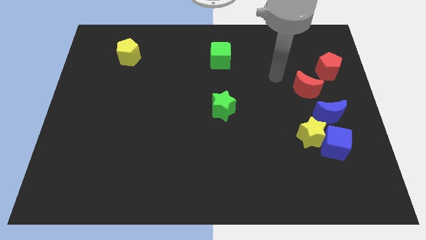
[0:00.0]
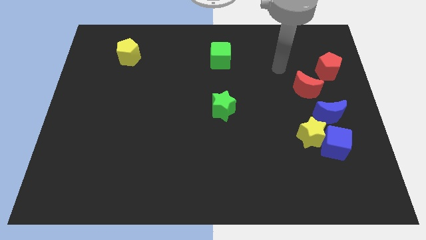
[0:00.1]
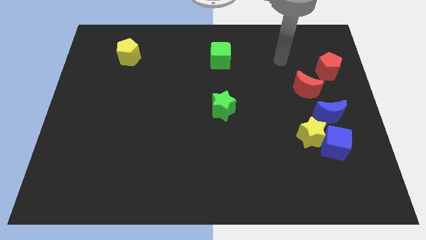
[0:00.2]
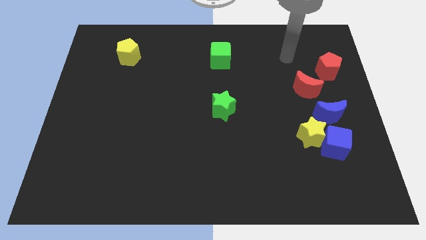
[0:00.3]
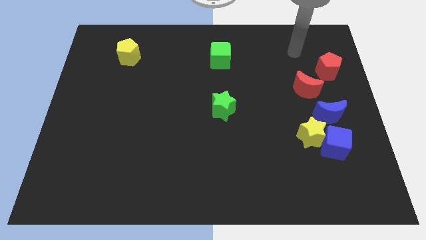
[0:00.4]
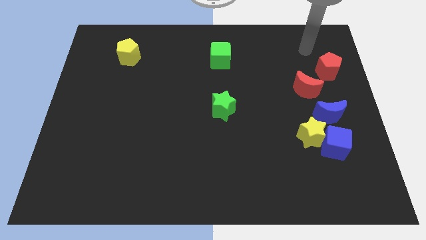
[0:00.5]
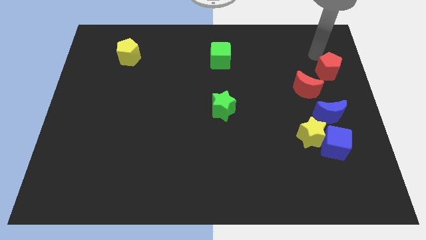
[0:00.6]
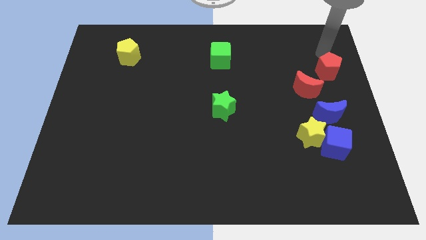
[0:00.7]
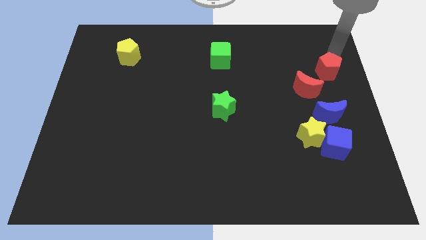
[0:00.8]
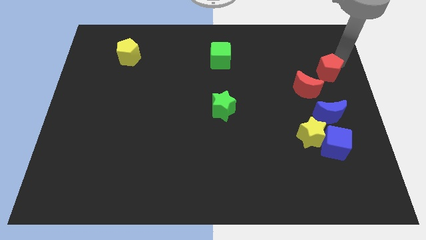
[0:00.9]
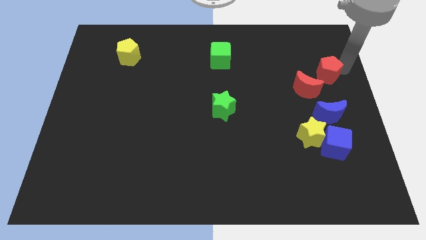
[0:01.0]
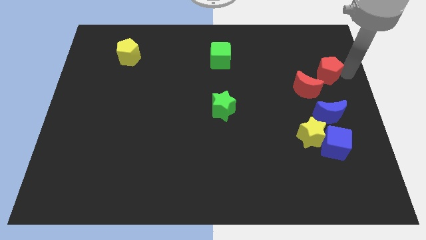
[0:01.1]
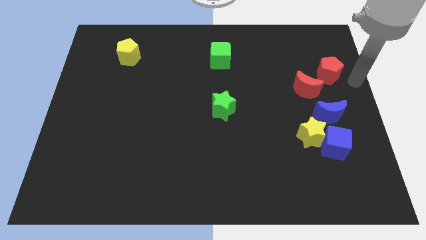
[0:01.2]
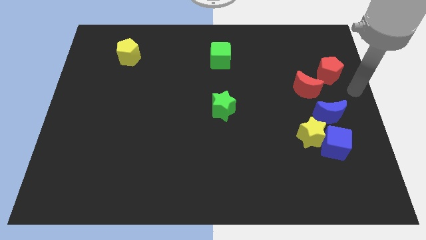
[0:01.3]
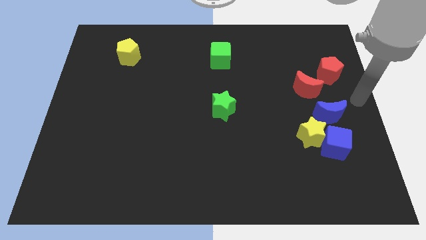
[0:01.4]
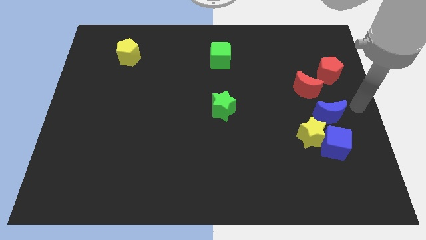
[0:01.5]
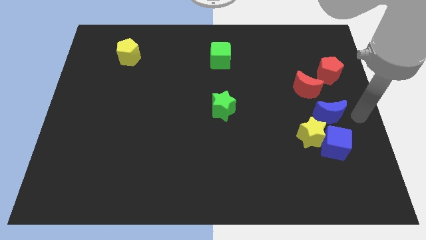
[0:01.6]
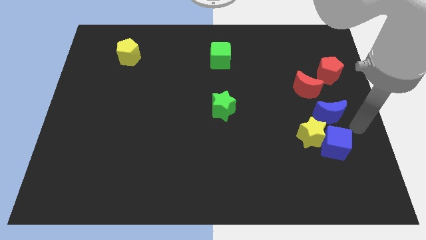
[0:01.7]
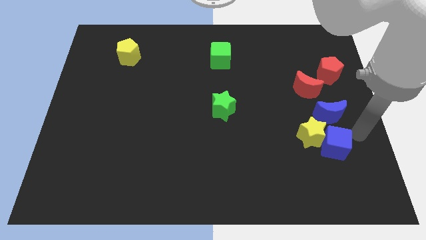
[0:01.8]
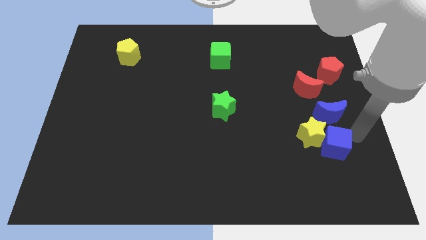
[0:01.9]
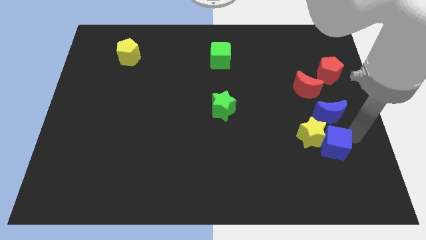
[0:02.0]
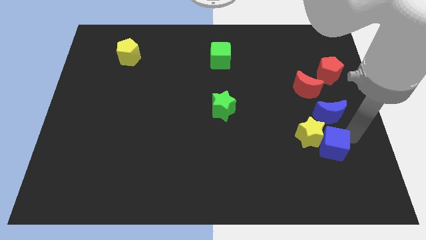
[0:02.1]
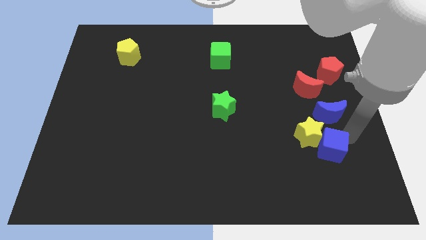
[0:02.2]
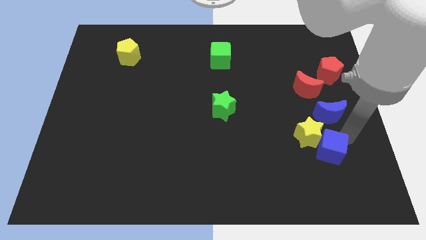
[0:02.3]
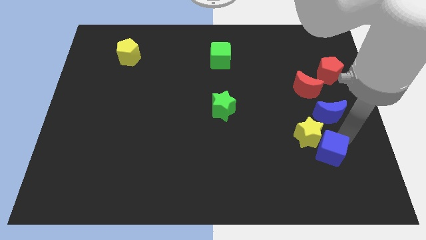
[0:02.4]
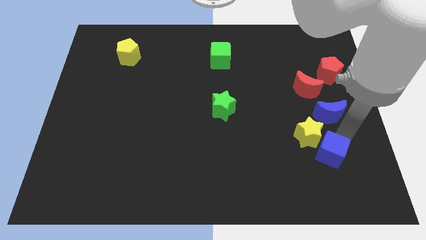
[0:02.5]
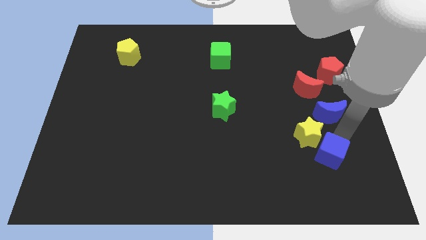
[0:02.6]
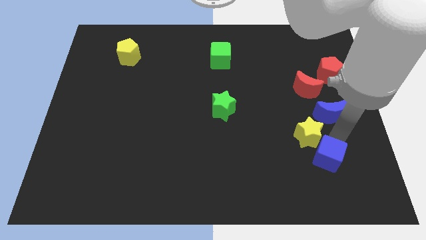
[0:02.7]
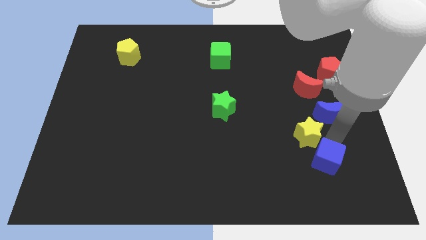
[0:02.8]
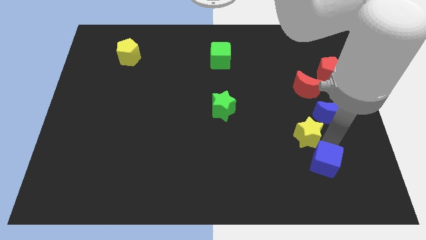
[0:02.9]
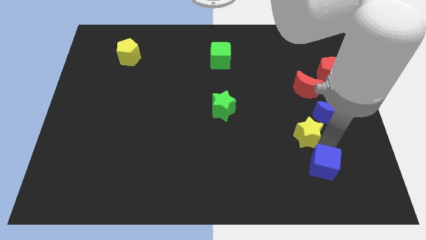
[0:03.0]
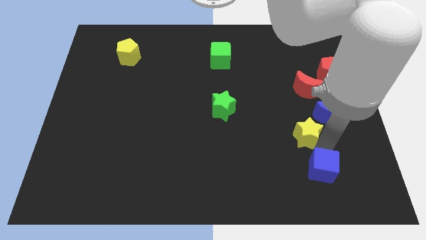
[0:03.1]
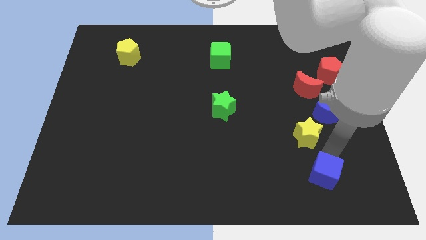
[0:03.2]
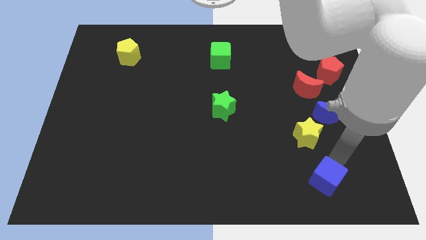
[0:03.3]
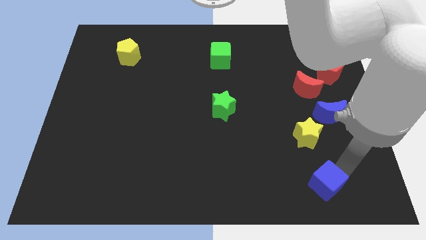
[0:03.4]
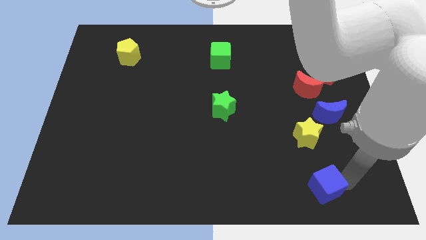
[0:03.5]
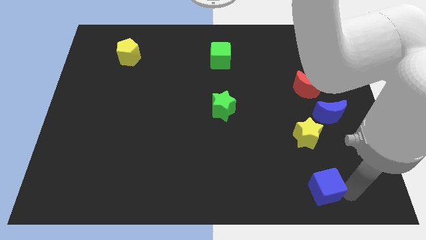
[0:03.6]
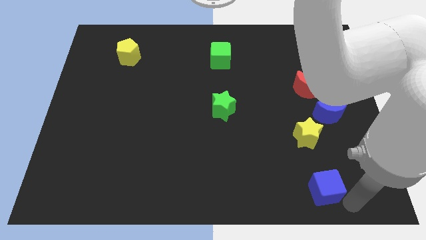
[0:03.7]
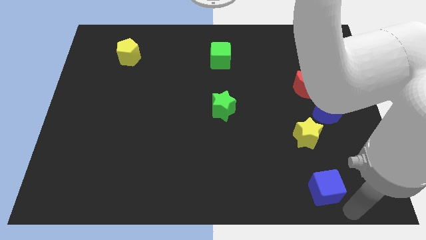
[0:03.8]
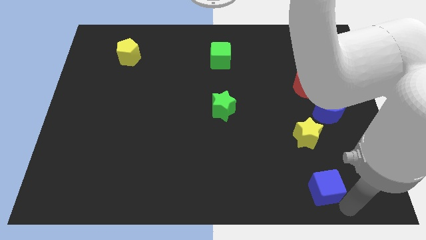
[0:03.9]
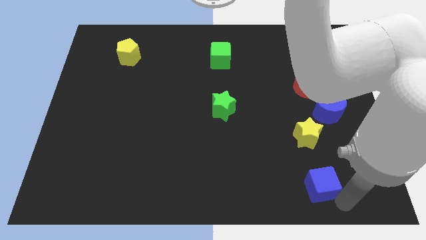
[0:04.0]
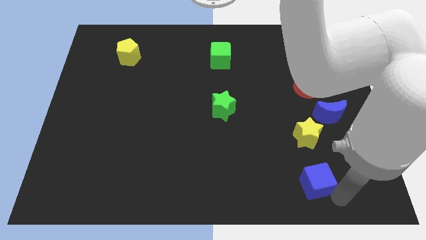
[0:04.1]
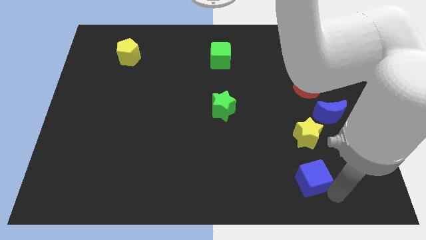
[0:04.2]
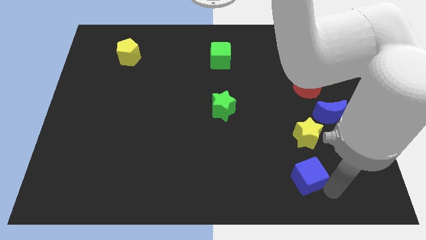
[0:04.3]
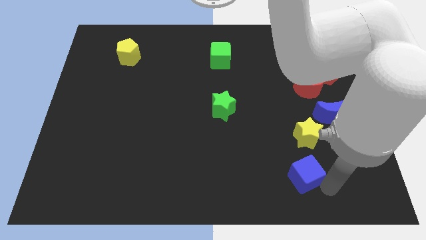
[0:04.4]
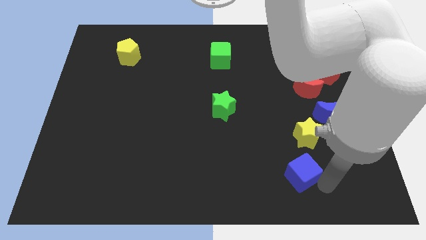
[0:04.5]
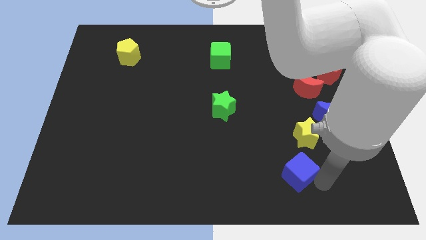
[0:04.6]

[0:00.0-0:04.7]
push the blue cube somewhat left

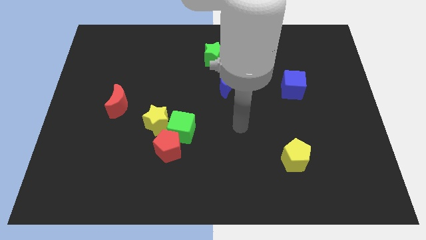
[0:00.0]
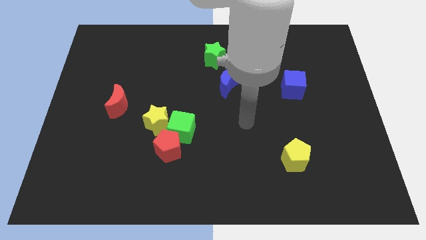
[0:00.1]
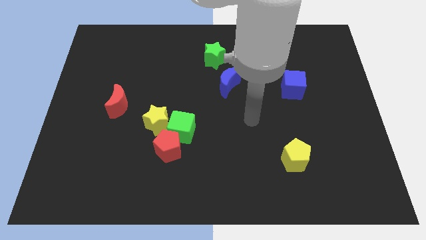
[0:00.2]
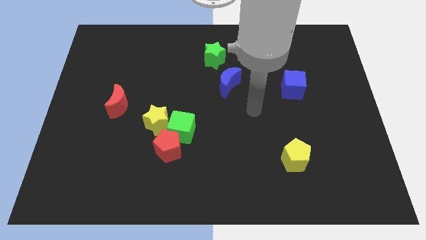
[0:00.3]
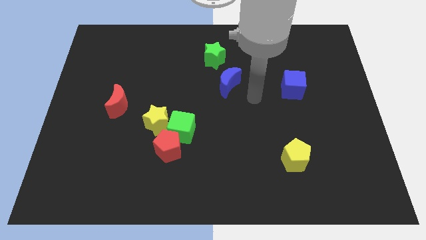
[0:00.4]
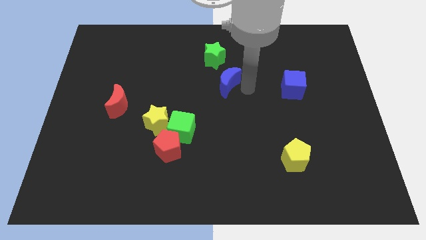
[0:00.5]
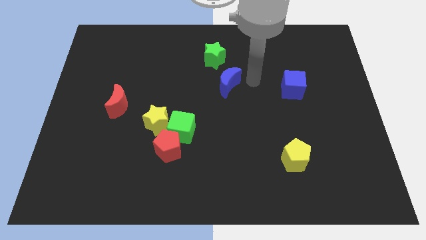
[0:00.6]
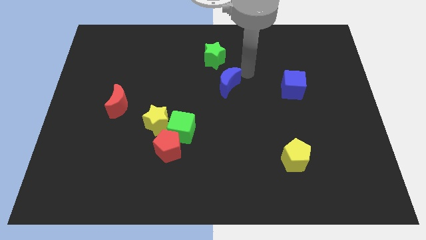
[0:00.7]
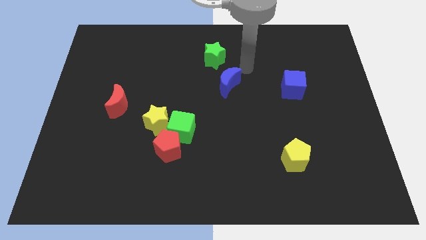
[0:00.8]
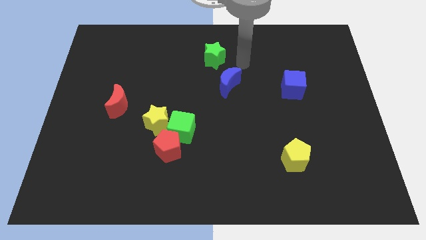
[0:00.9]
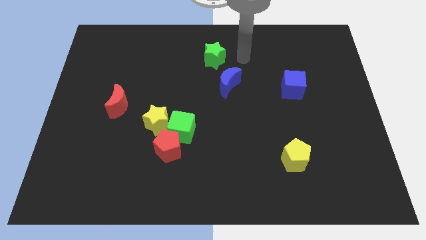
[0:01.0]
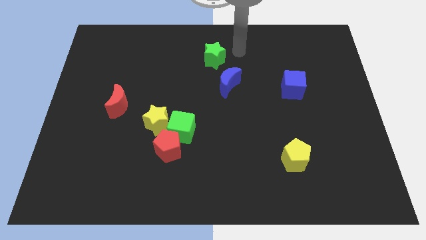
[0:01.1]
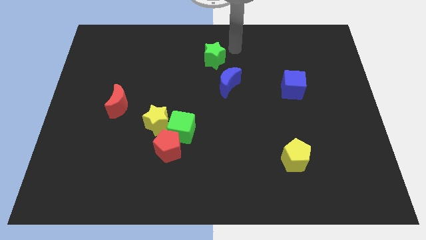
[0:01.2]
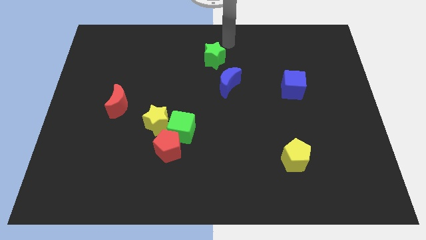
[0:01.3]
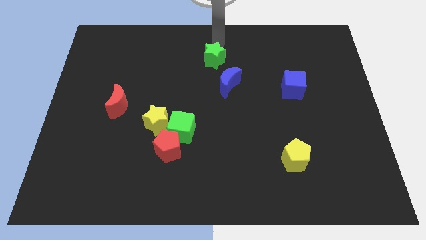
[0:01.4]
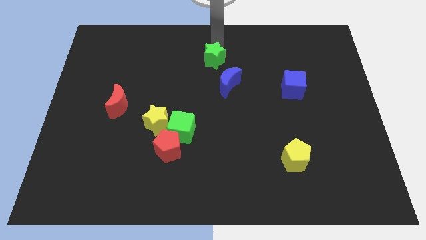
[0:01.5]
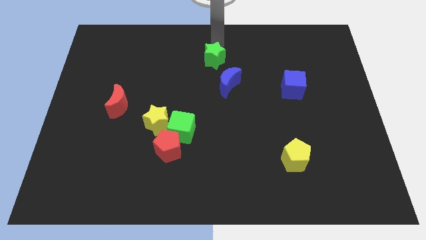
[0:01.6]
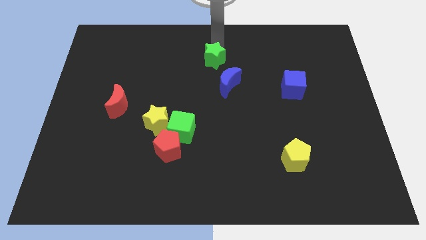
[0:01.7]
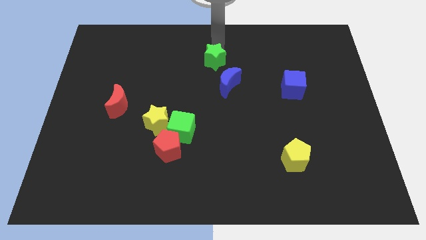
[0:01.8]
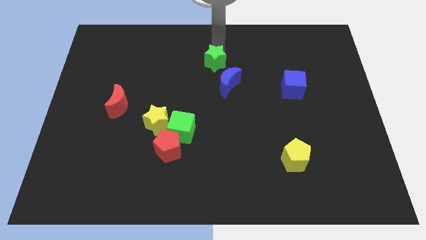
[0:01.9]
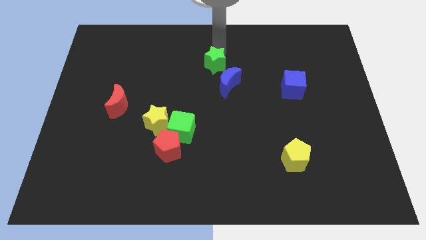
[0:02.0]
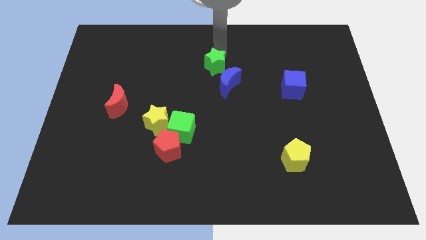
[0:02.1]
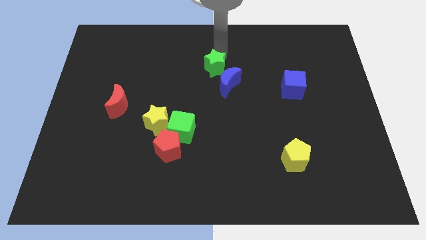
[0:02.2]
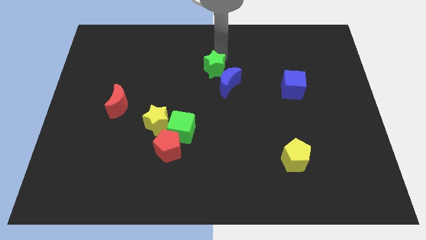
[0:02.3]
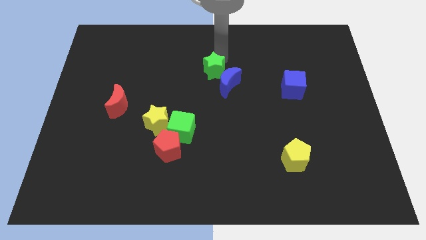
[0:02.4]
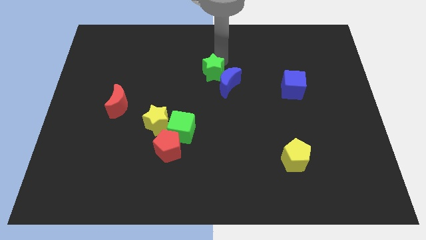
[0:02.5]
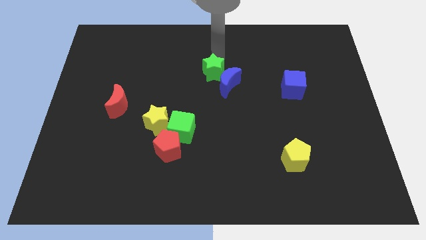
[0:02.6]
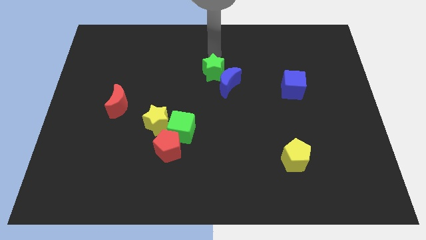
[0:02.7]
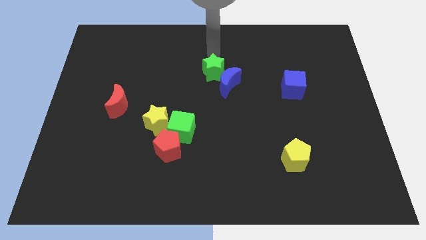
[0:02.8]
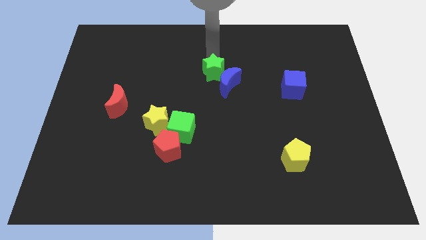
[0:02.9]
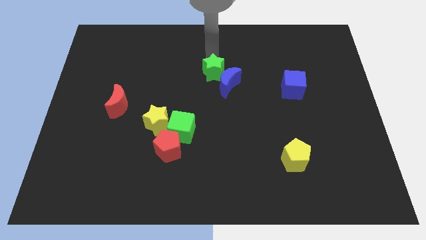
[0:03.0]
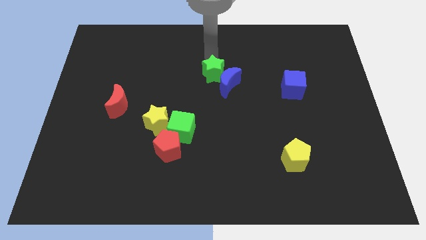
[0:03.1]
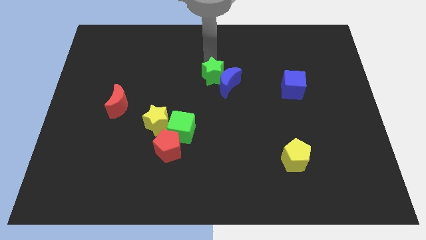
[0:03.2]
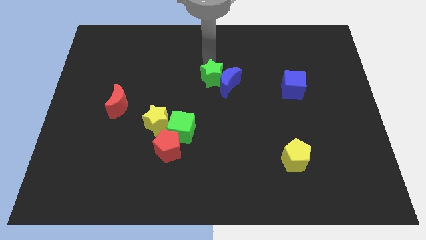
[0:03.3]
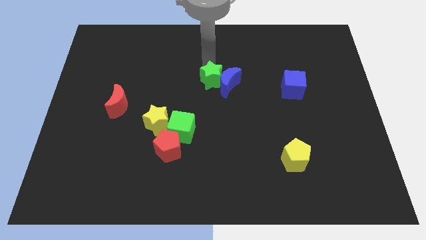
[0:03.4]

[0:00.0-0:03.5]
move the green star downwards a little

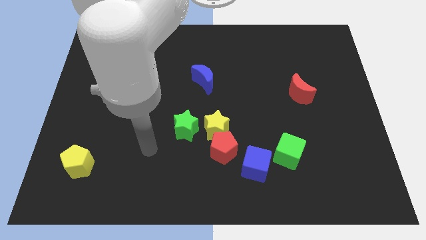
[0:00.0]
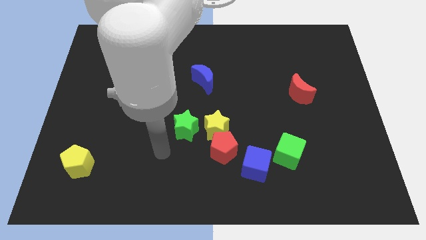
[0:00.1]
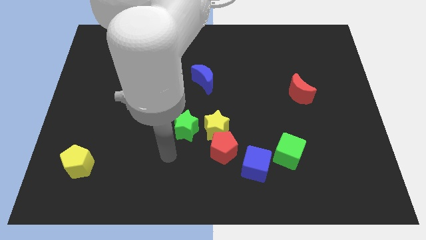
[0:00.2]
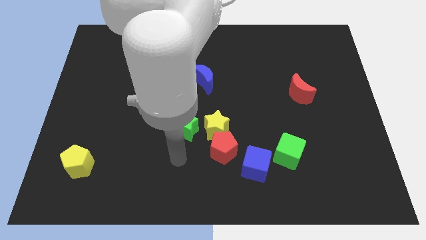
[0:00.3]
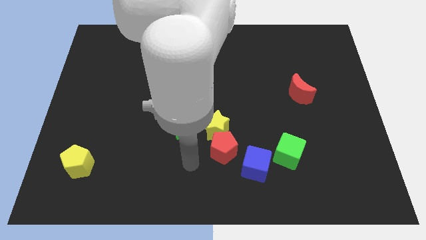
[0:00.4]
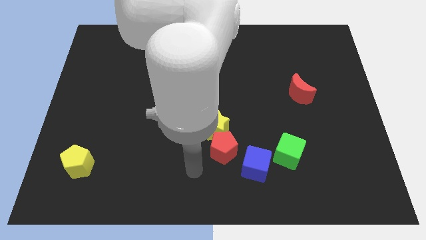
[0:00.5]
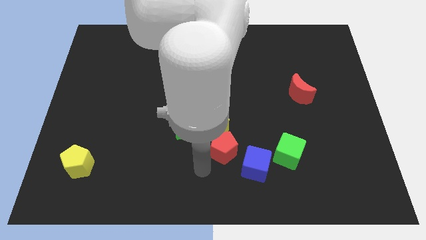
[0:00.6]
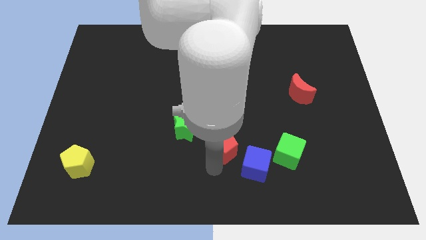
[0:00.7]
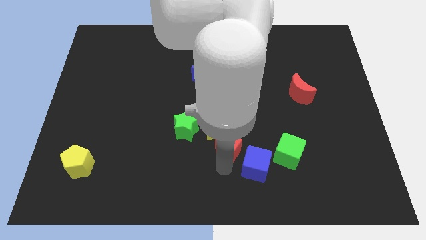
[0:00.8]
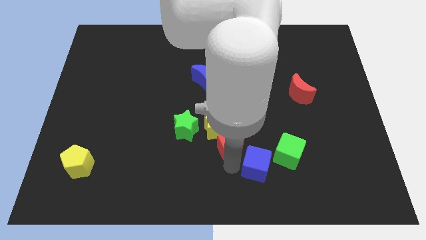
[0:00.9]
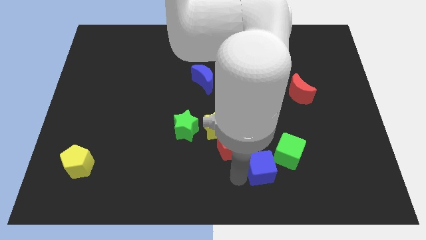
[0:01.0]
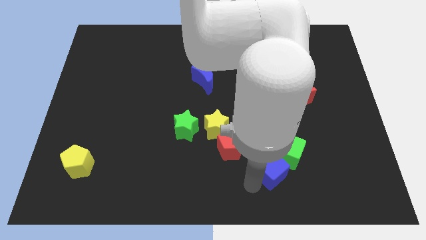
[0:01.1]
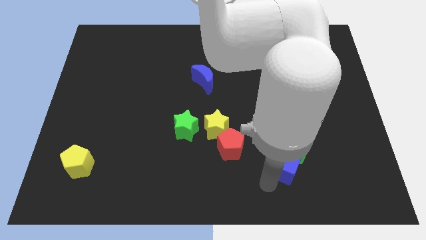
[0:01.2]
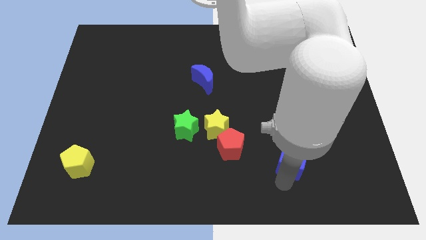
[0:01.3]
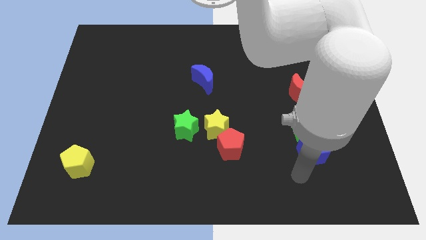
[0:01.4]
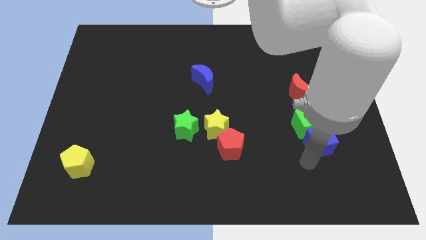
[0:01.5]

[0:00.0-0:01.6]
push the green cube upwards somewhat
